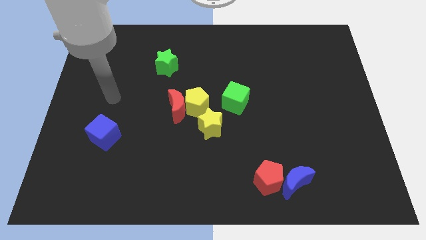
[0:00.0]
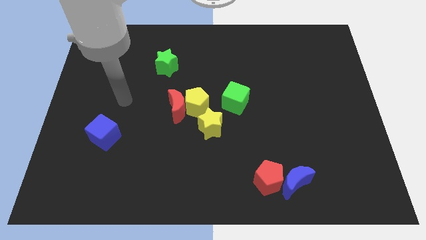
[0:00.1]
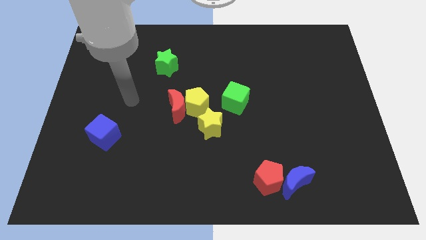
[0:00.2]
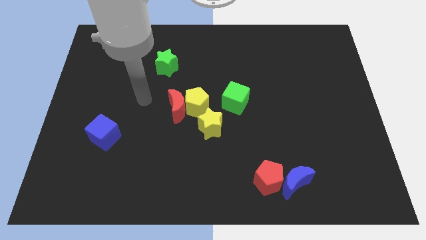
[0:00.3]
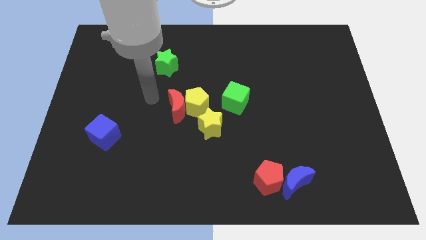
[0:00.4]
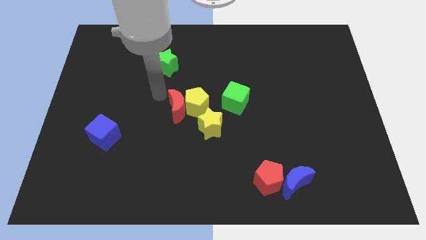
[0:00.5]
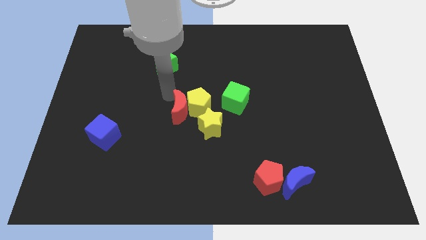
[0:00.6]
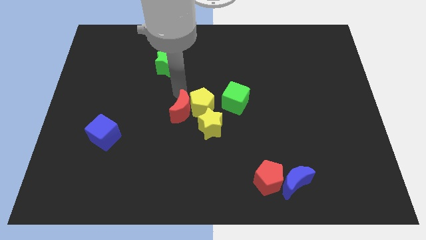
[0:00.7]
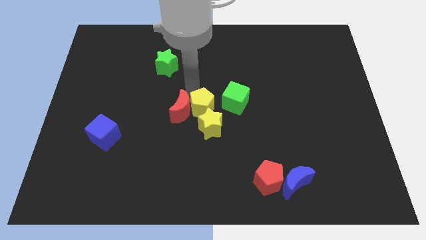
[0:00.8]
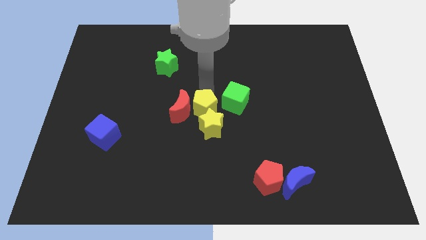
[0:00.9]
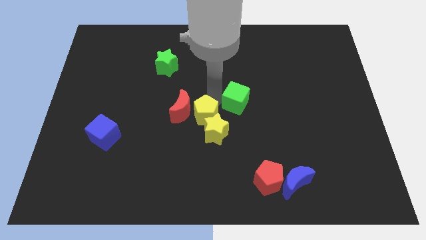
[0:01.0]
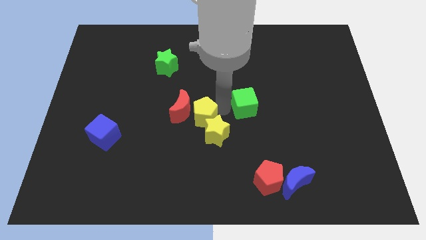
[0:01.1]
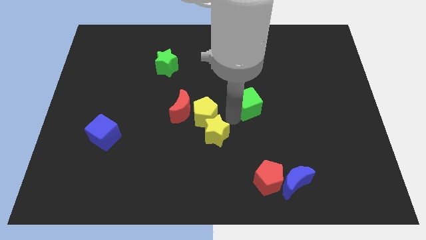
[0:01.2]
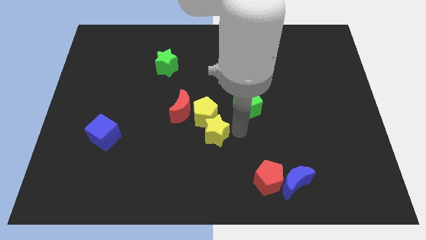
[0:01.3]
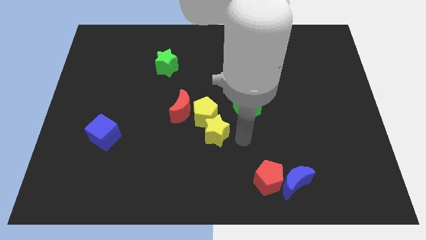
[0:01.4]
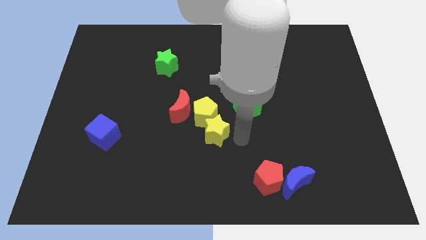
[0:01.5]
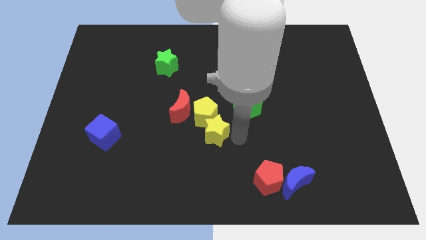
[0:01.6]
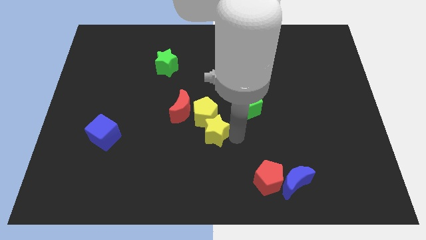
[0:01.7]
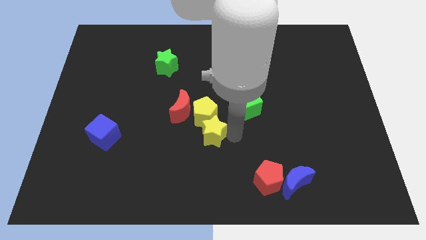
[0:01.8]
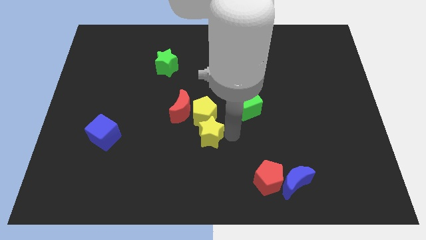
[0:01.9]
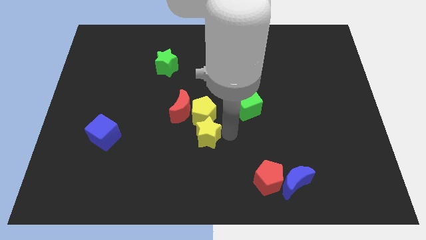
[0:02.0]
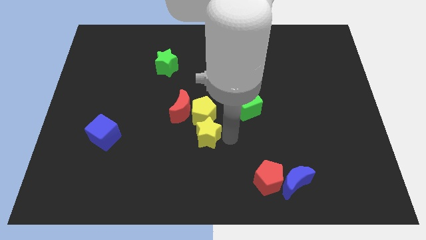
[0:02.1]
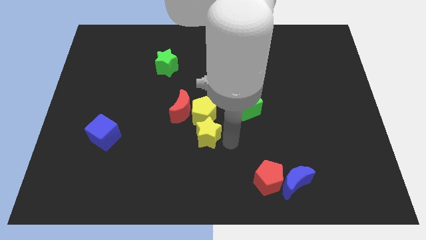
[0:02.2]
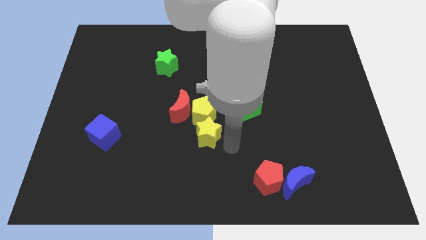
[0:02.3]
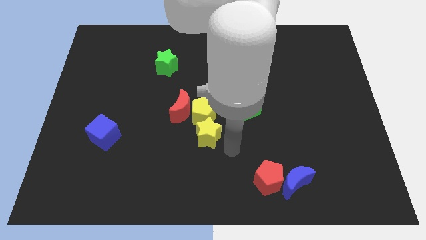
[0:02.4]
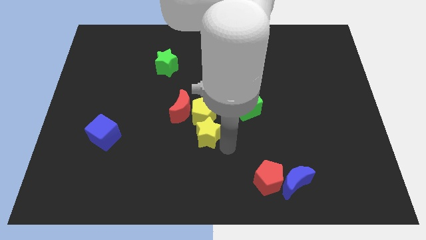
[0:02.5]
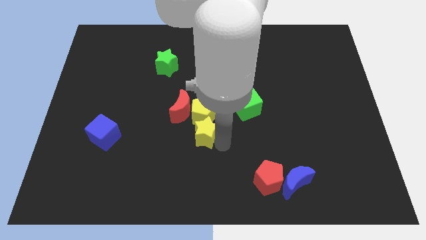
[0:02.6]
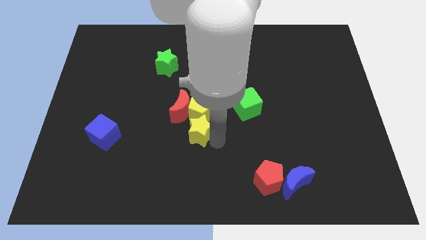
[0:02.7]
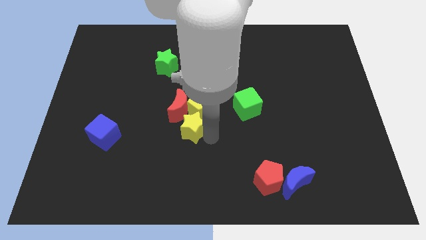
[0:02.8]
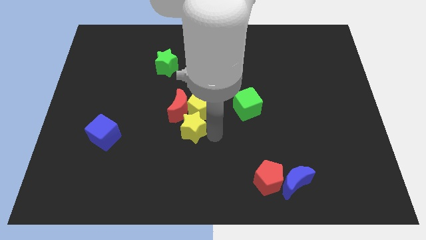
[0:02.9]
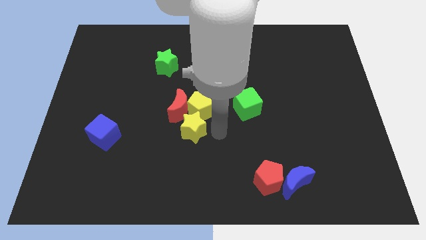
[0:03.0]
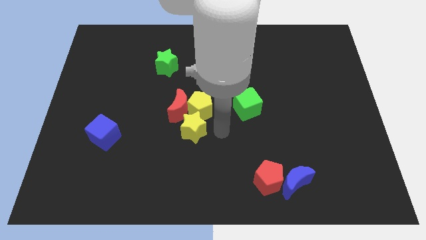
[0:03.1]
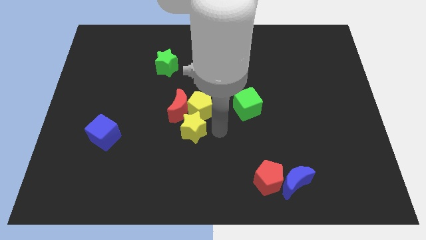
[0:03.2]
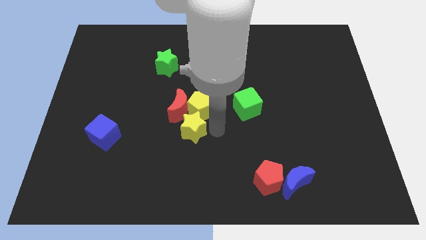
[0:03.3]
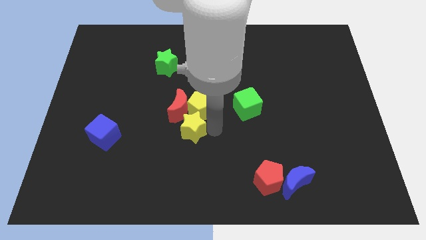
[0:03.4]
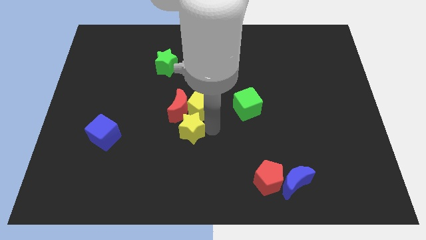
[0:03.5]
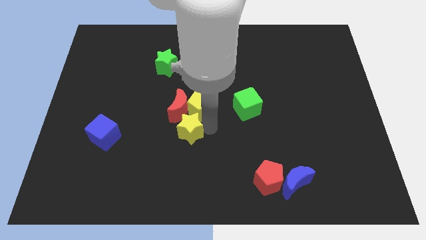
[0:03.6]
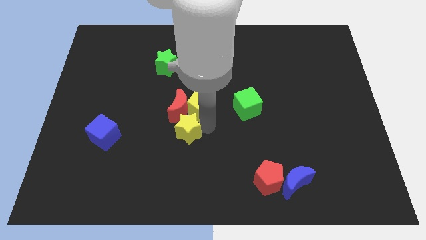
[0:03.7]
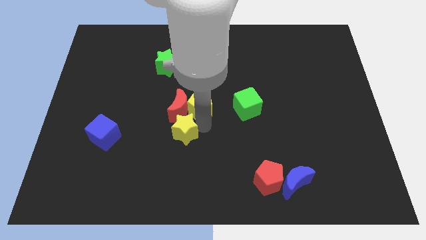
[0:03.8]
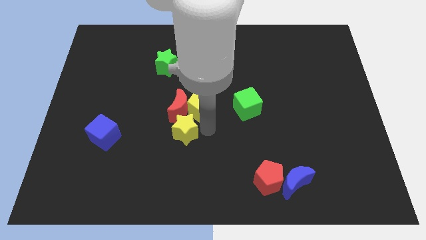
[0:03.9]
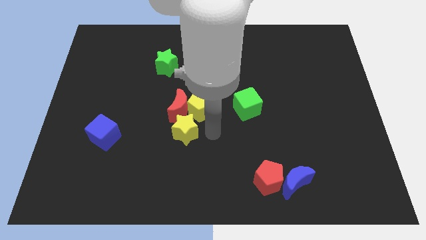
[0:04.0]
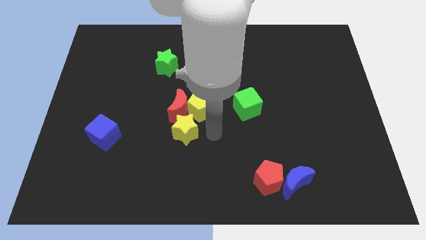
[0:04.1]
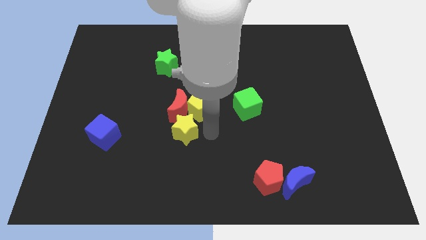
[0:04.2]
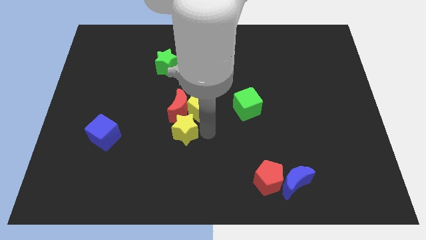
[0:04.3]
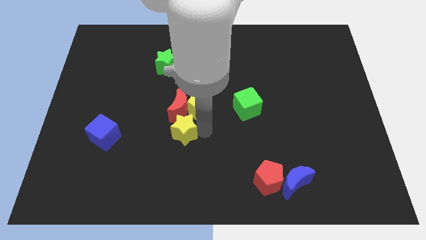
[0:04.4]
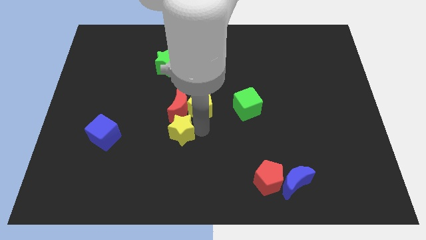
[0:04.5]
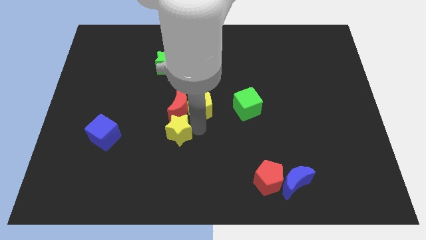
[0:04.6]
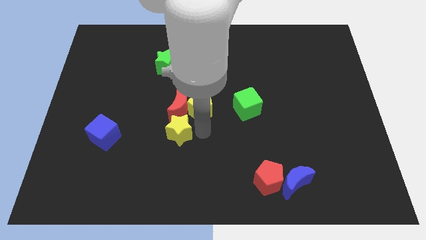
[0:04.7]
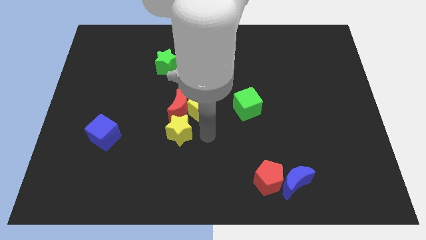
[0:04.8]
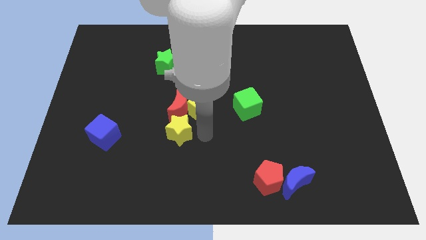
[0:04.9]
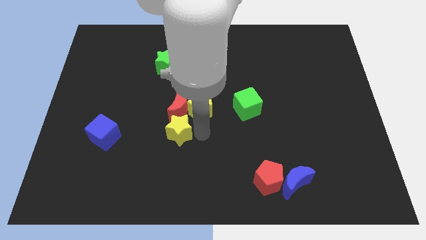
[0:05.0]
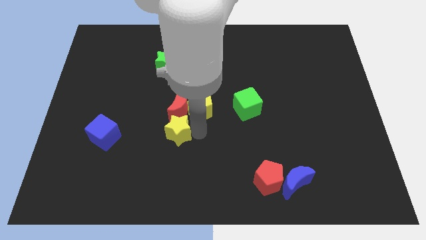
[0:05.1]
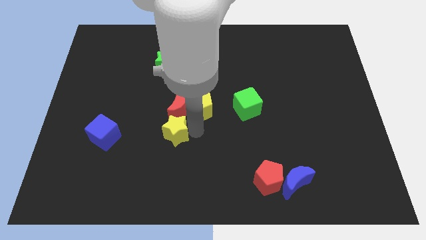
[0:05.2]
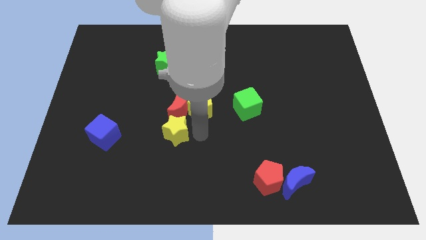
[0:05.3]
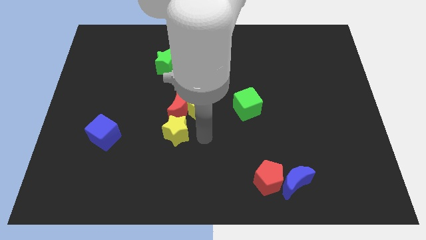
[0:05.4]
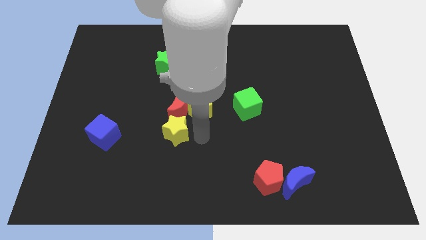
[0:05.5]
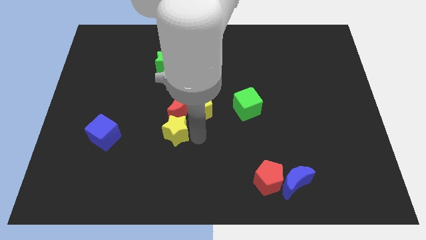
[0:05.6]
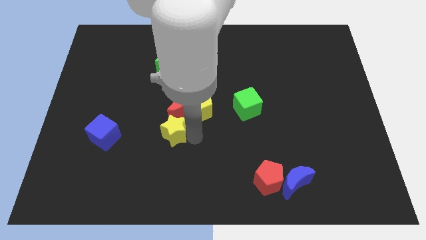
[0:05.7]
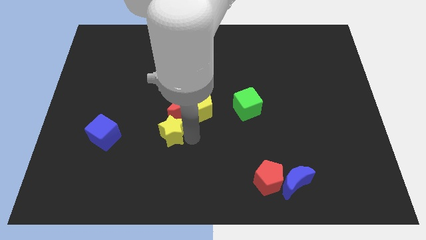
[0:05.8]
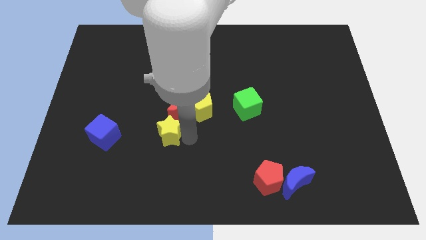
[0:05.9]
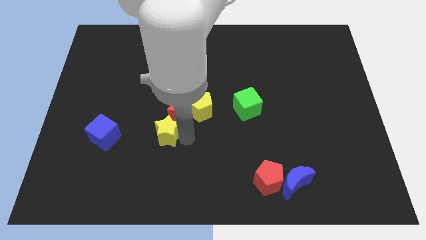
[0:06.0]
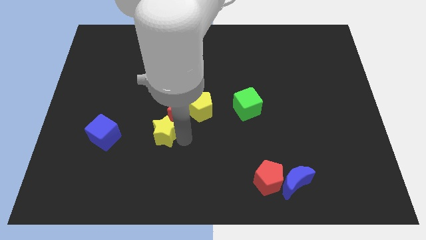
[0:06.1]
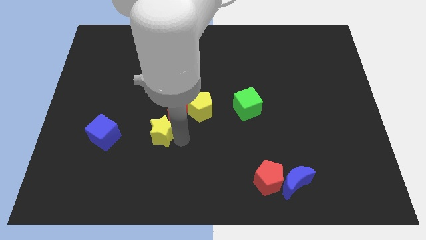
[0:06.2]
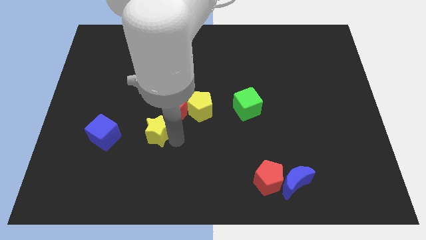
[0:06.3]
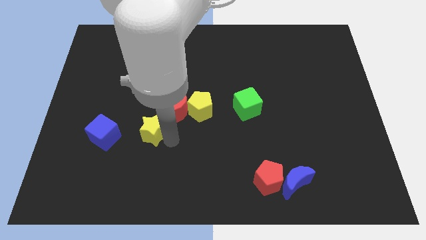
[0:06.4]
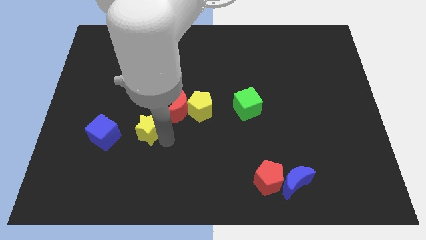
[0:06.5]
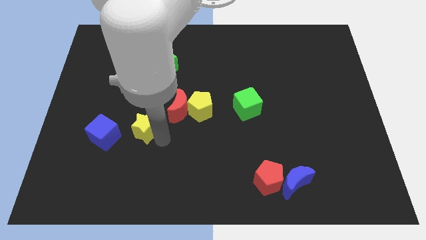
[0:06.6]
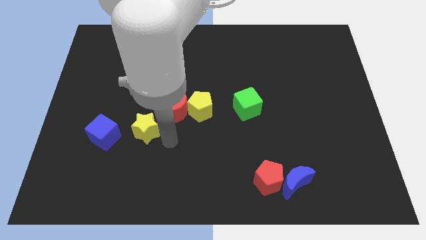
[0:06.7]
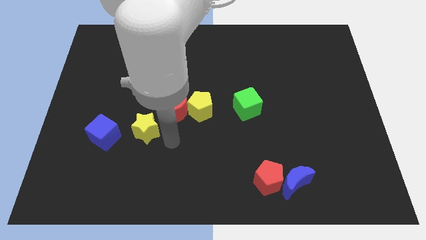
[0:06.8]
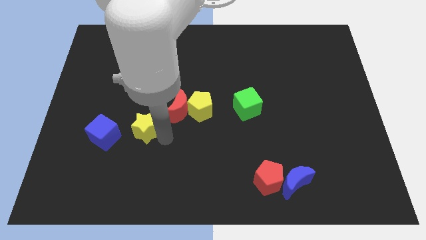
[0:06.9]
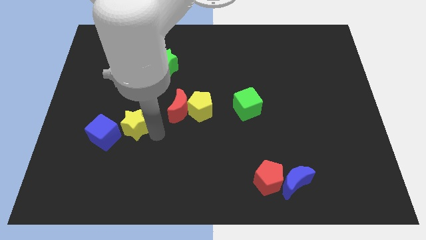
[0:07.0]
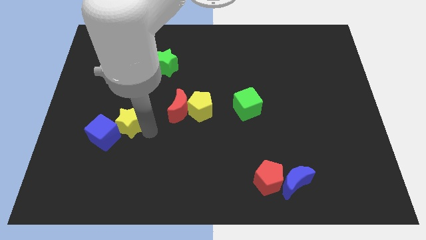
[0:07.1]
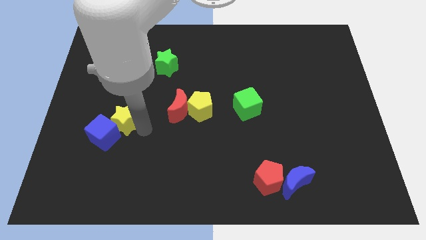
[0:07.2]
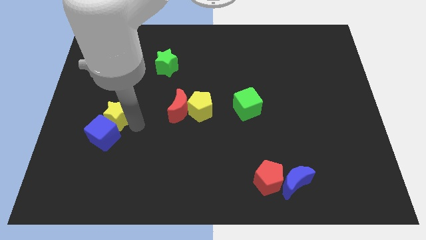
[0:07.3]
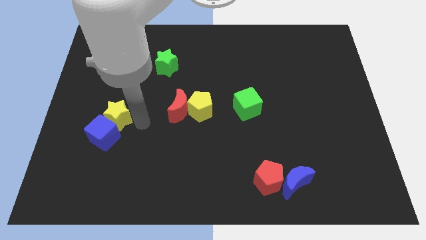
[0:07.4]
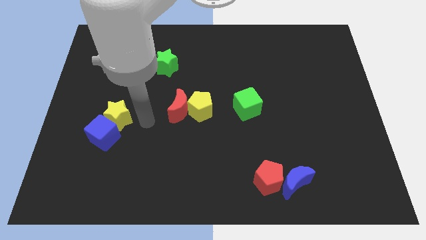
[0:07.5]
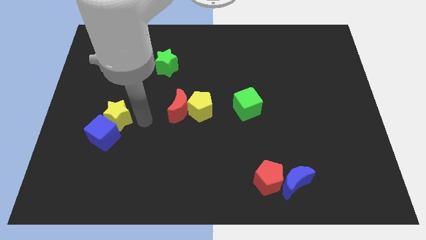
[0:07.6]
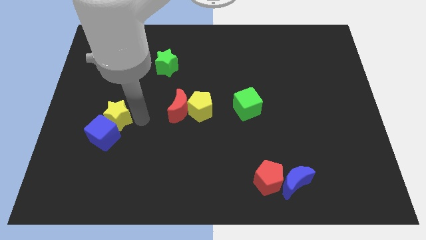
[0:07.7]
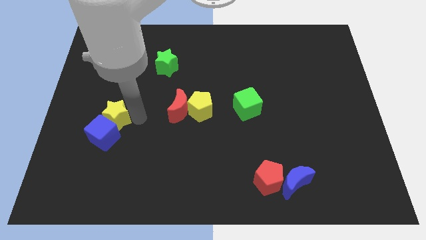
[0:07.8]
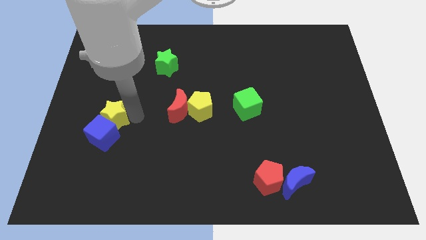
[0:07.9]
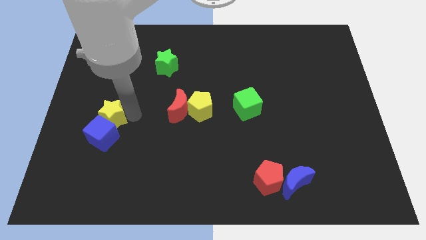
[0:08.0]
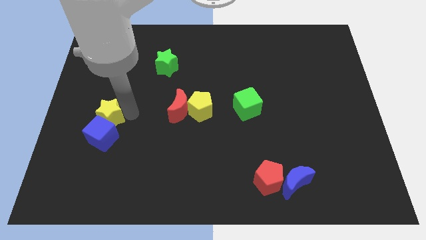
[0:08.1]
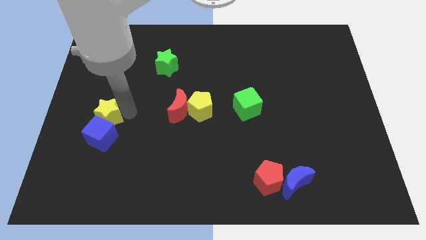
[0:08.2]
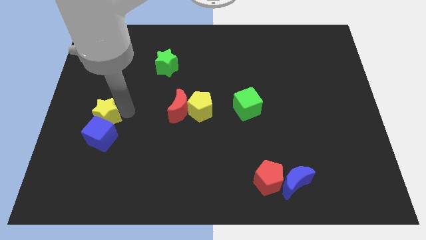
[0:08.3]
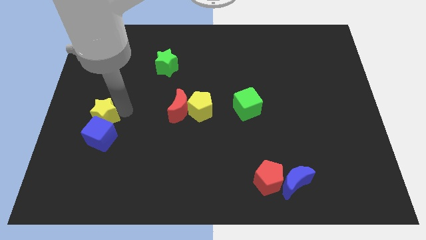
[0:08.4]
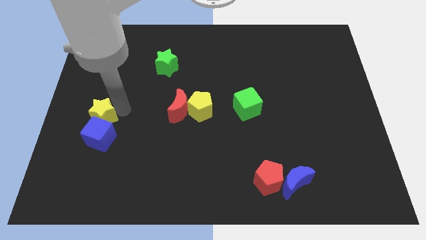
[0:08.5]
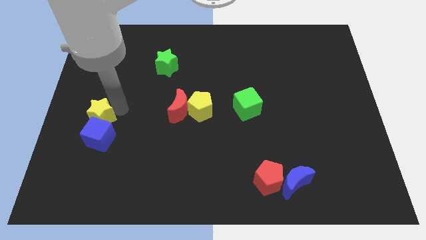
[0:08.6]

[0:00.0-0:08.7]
put the yellow star to the center left
